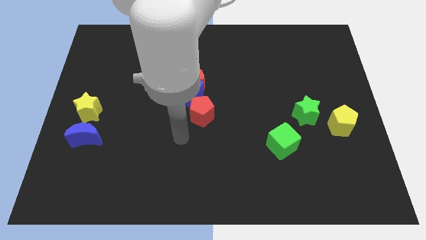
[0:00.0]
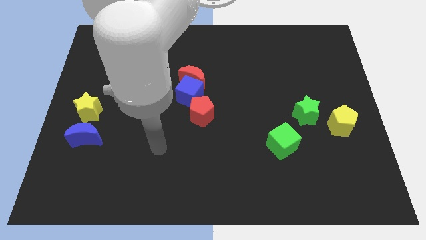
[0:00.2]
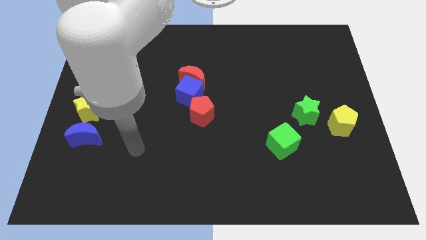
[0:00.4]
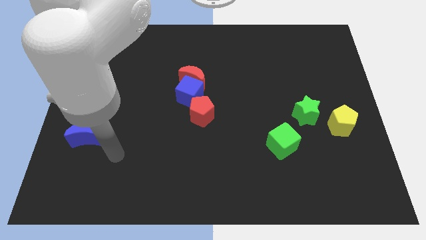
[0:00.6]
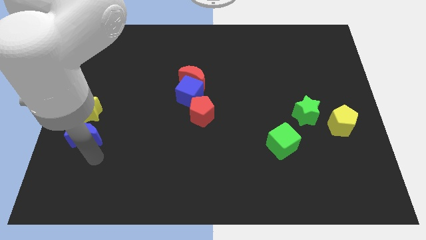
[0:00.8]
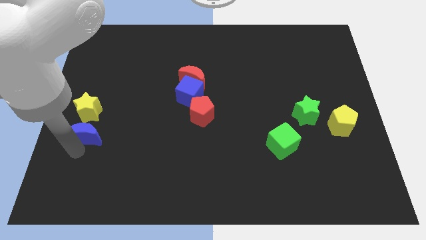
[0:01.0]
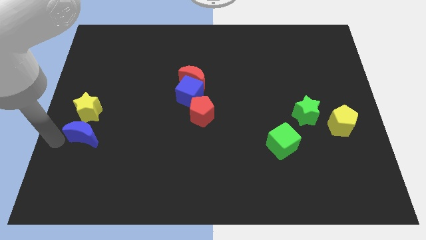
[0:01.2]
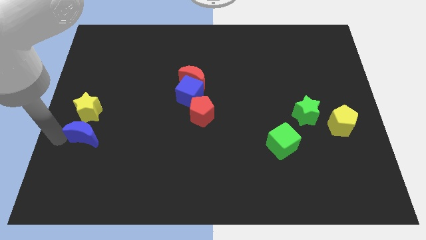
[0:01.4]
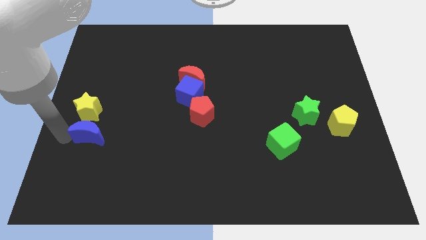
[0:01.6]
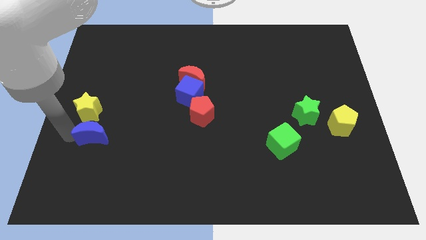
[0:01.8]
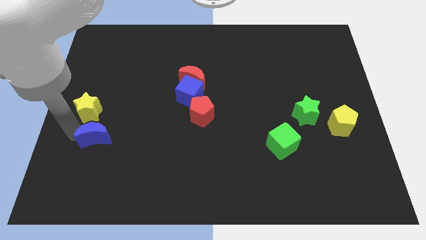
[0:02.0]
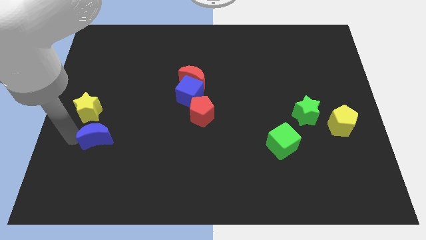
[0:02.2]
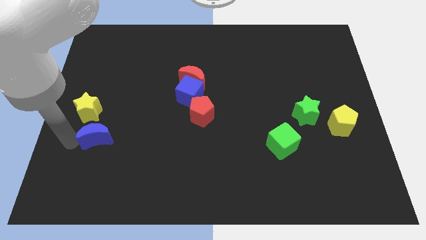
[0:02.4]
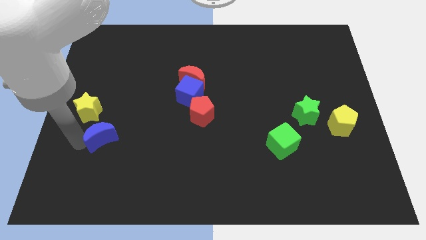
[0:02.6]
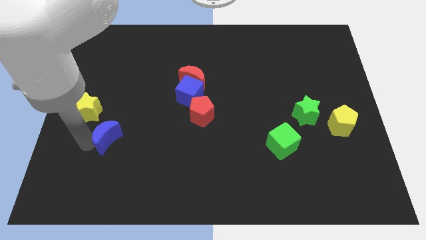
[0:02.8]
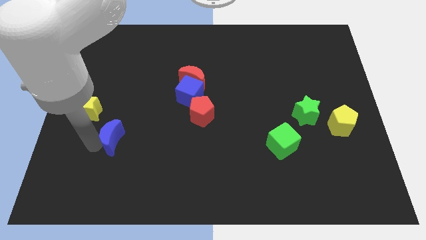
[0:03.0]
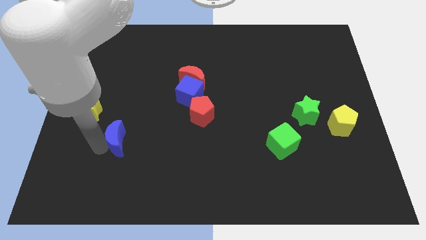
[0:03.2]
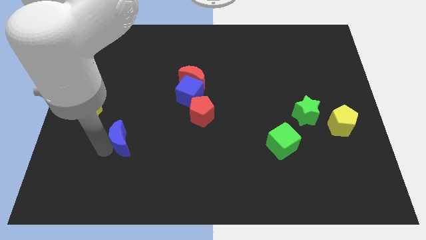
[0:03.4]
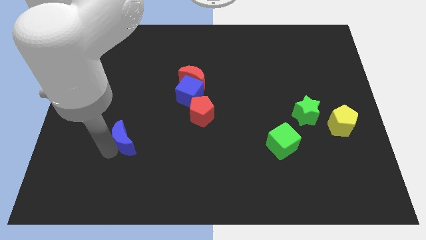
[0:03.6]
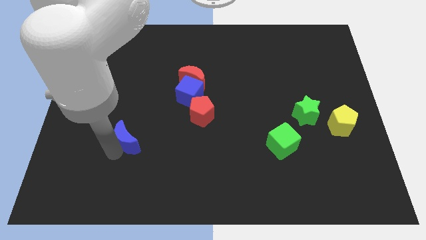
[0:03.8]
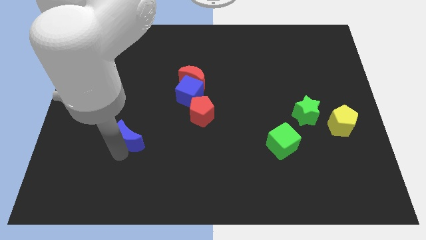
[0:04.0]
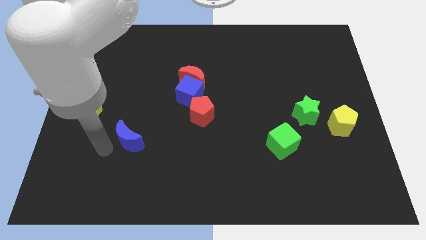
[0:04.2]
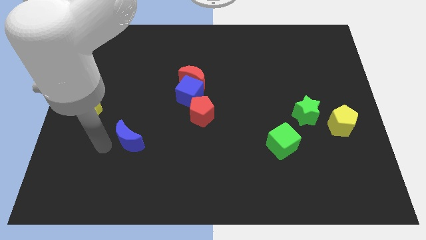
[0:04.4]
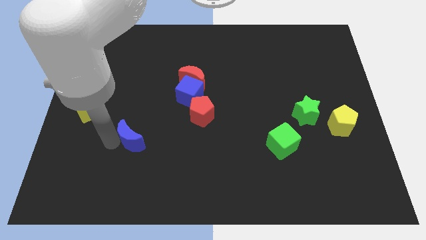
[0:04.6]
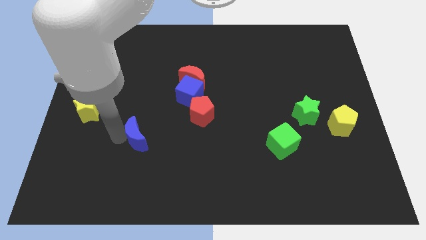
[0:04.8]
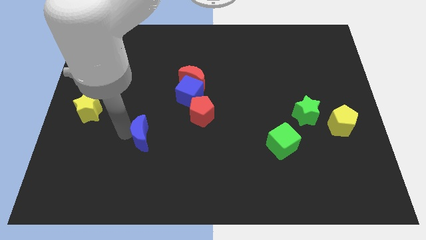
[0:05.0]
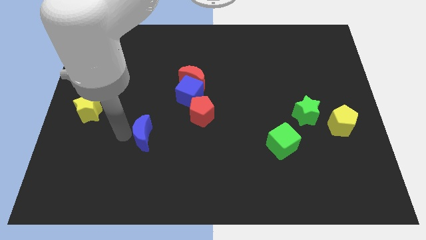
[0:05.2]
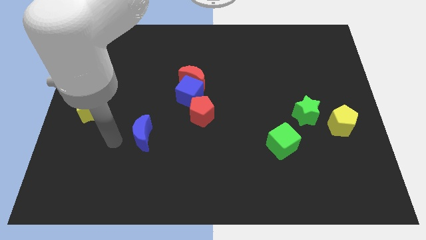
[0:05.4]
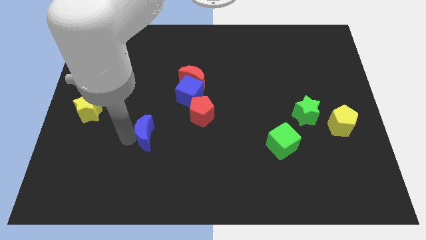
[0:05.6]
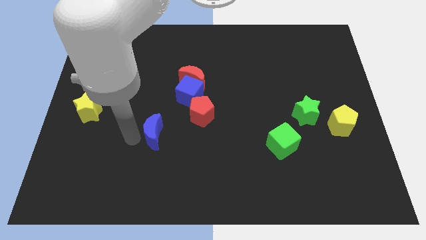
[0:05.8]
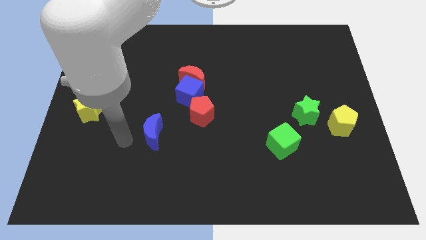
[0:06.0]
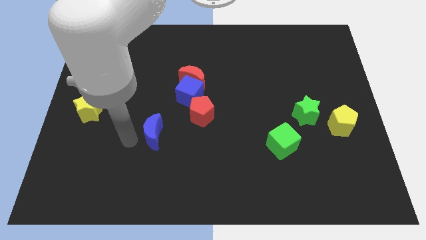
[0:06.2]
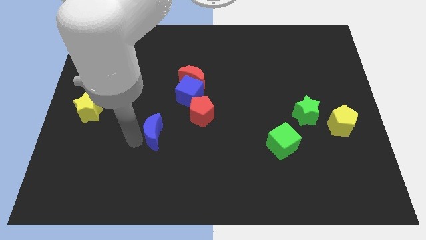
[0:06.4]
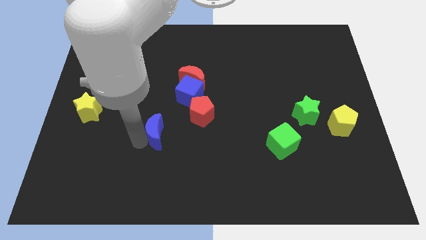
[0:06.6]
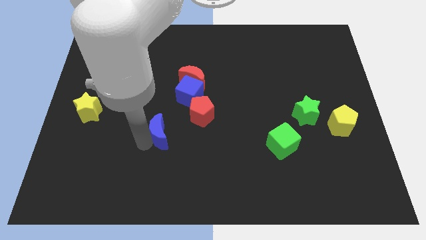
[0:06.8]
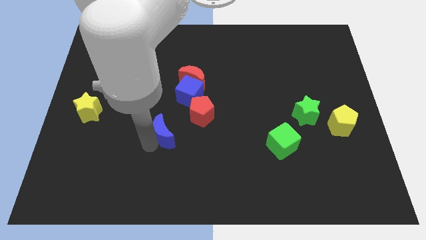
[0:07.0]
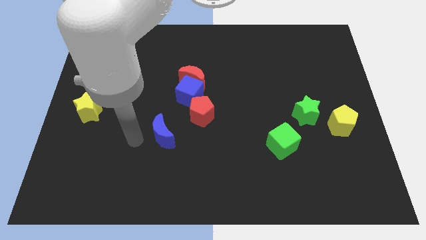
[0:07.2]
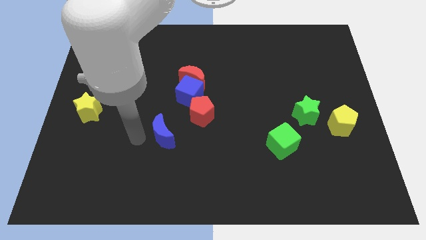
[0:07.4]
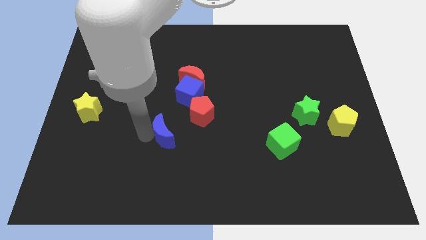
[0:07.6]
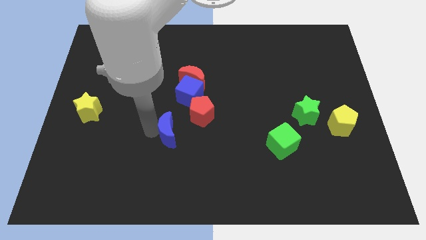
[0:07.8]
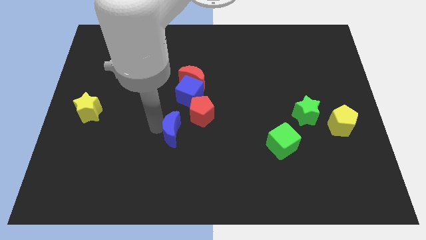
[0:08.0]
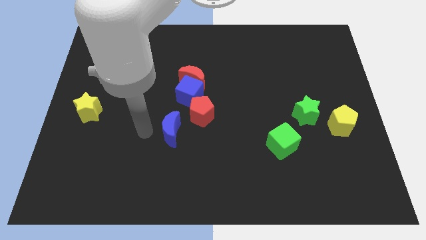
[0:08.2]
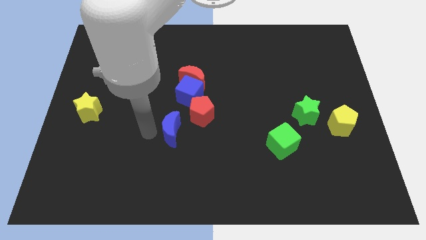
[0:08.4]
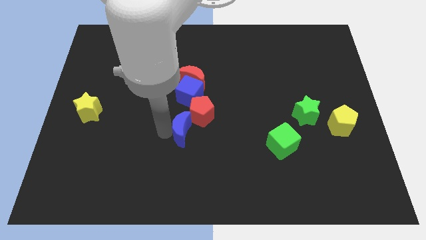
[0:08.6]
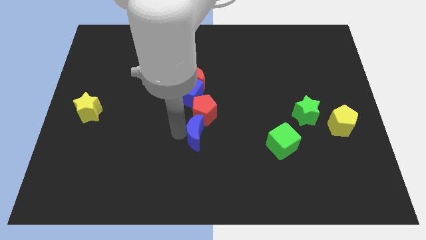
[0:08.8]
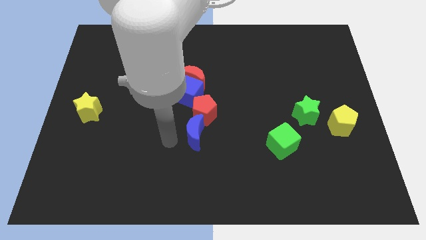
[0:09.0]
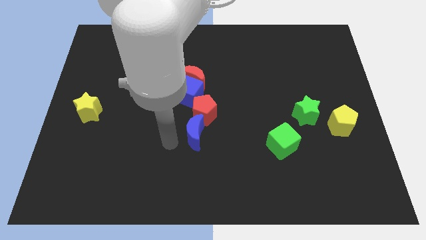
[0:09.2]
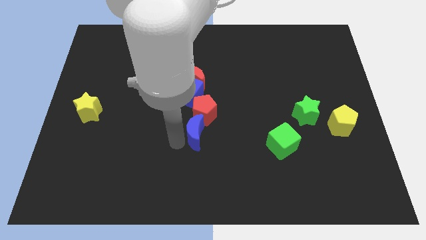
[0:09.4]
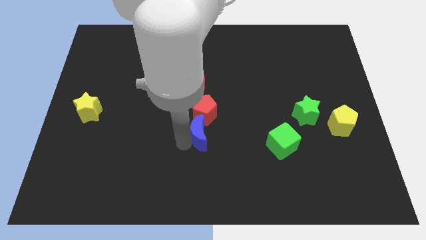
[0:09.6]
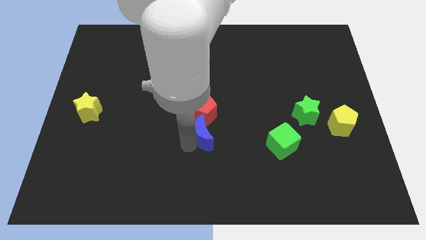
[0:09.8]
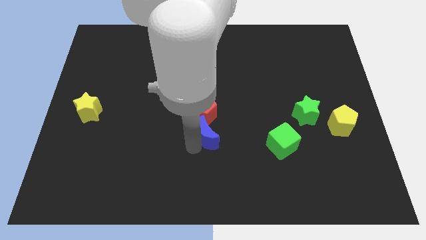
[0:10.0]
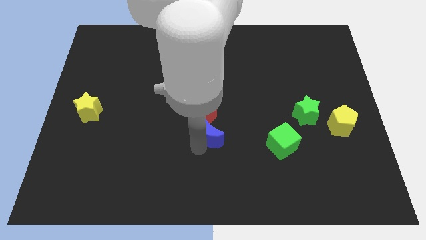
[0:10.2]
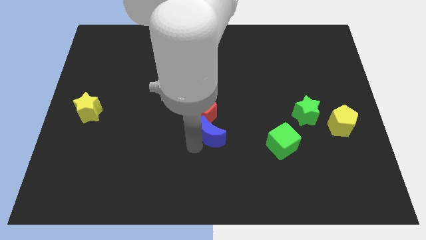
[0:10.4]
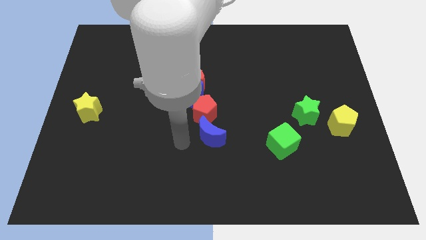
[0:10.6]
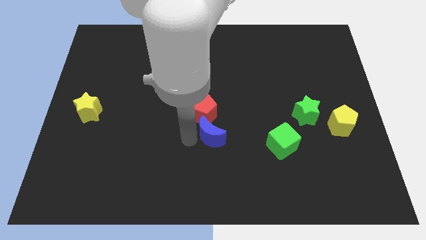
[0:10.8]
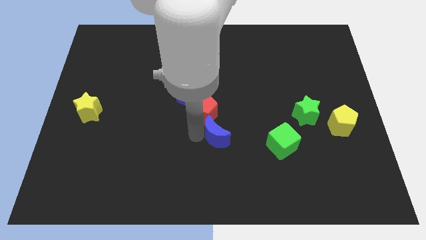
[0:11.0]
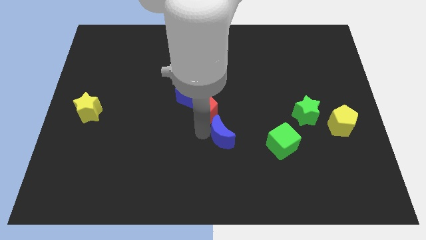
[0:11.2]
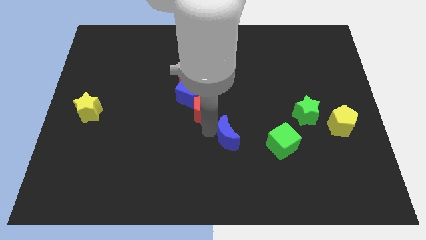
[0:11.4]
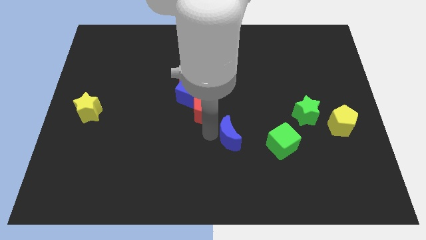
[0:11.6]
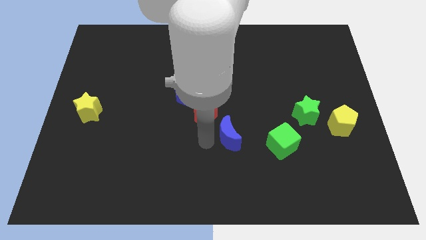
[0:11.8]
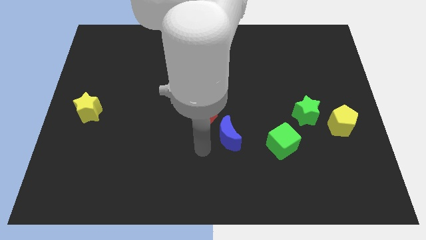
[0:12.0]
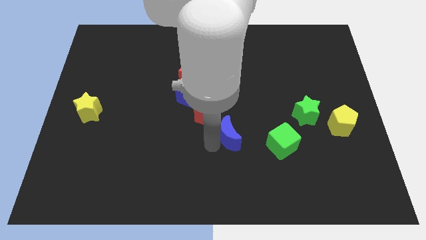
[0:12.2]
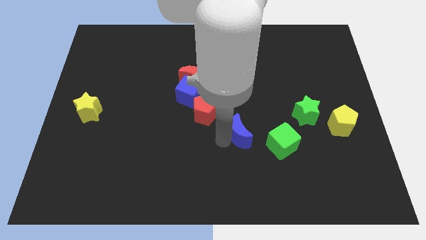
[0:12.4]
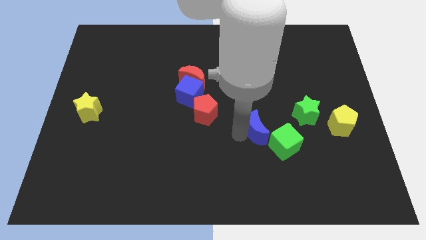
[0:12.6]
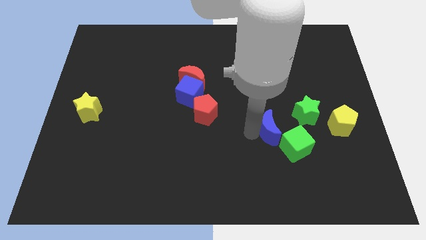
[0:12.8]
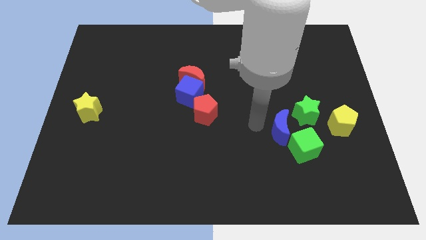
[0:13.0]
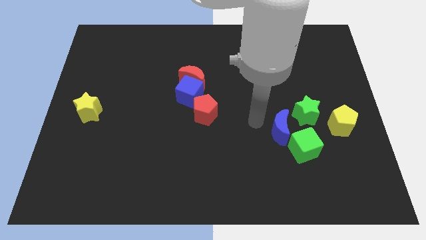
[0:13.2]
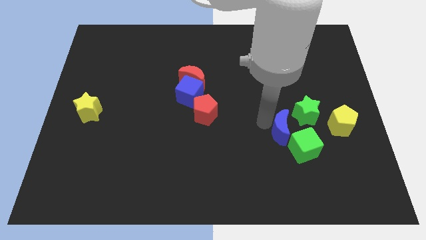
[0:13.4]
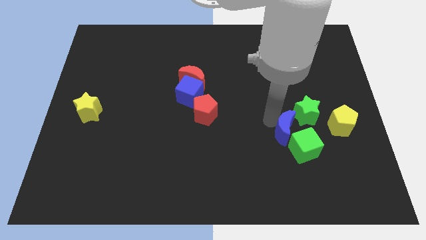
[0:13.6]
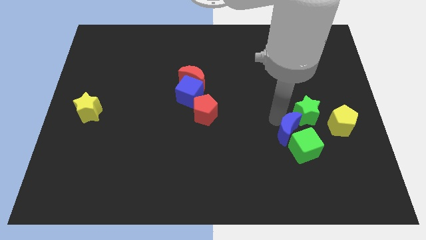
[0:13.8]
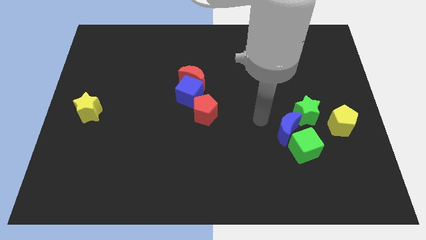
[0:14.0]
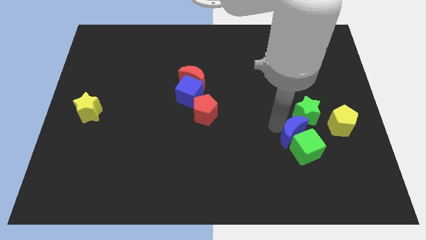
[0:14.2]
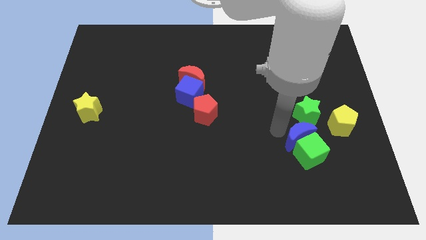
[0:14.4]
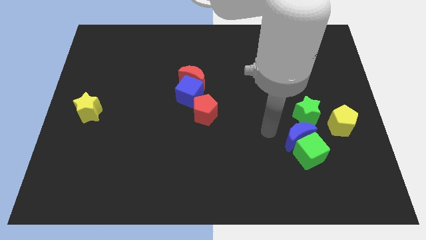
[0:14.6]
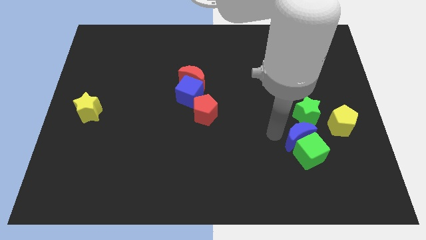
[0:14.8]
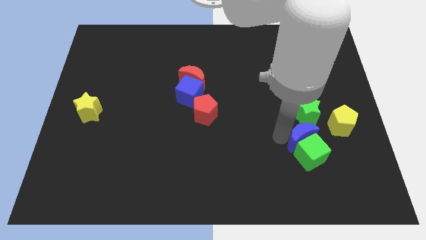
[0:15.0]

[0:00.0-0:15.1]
put the blue moon to the bottom left of the yellow pentagon
